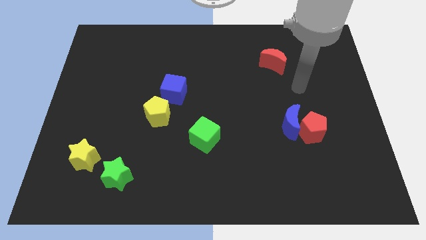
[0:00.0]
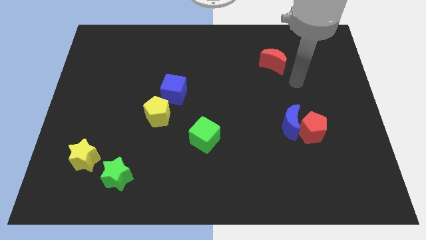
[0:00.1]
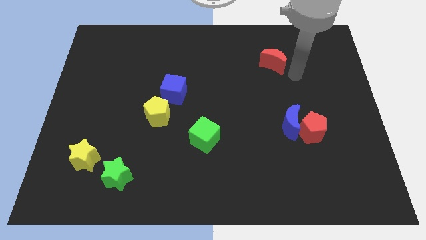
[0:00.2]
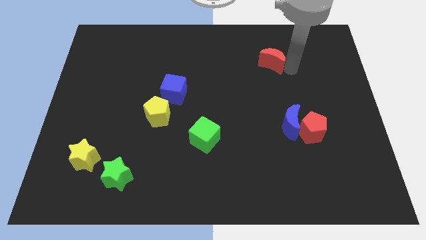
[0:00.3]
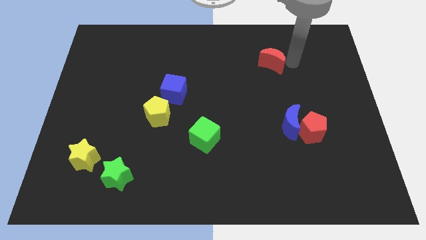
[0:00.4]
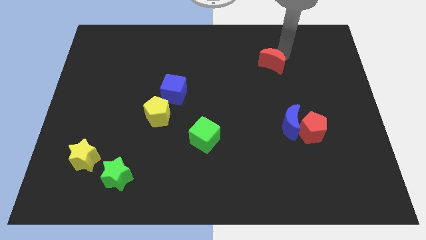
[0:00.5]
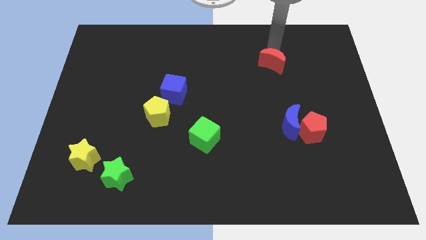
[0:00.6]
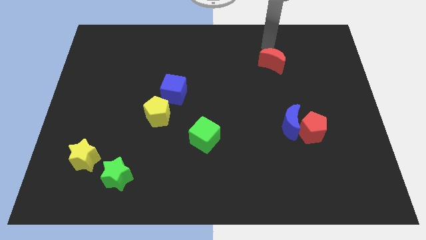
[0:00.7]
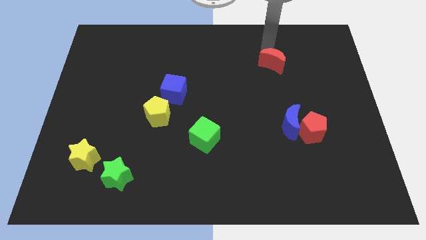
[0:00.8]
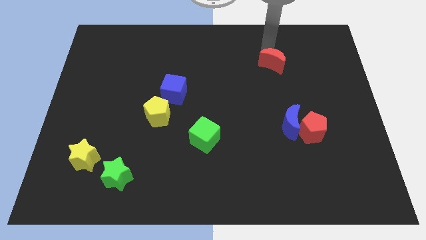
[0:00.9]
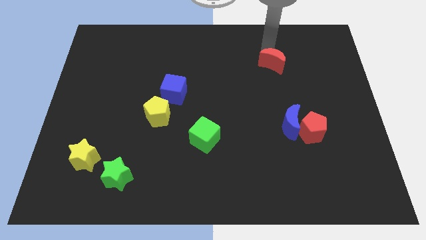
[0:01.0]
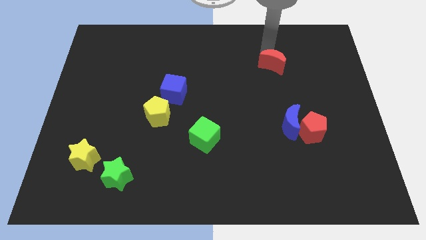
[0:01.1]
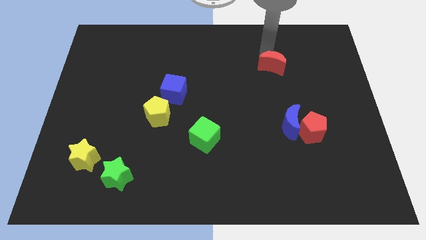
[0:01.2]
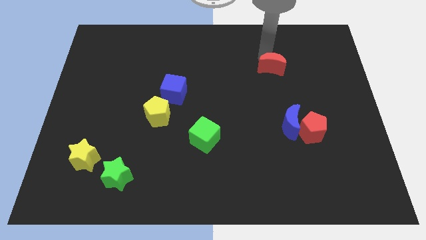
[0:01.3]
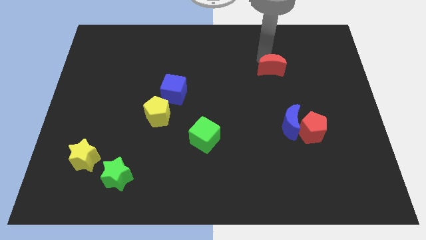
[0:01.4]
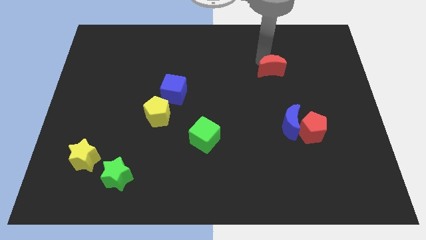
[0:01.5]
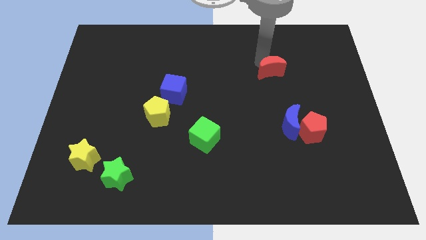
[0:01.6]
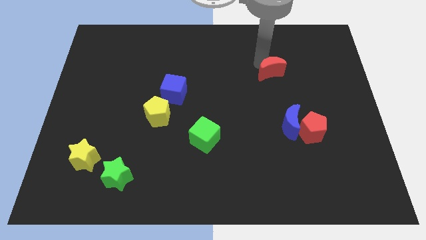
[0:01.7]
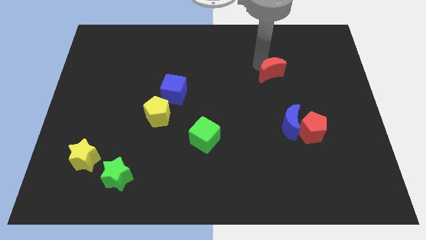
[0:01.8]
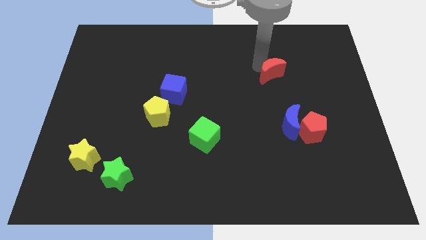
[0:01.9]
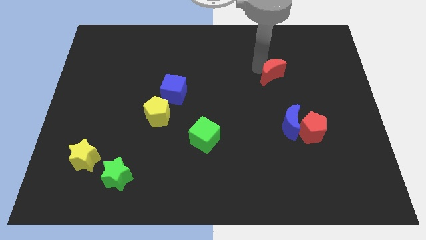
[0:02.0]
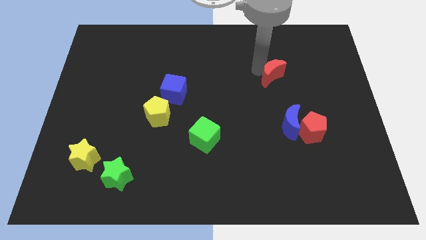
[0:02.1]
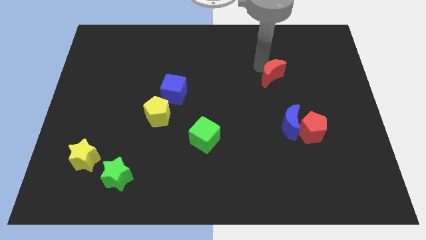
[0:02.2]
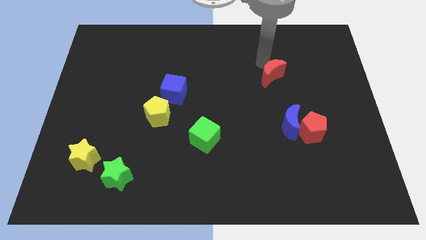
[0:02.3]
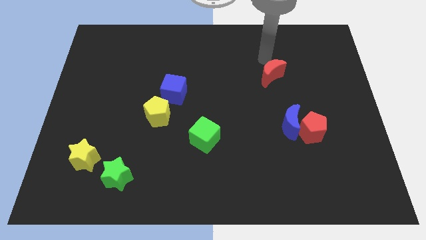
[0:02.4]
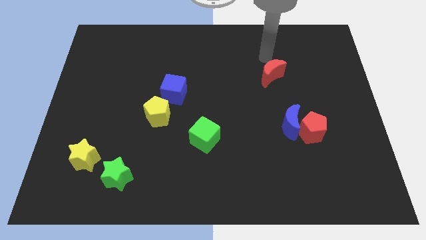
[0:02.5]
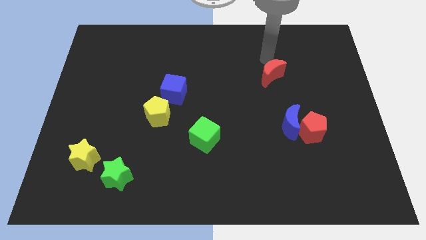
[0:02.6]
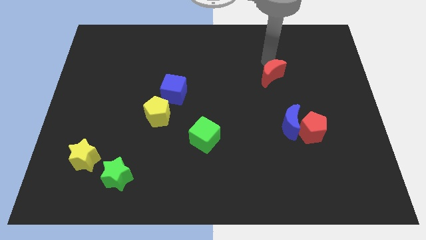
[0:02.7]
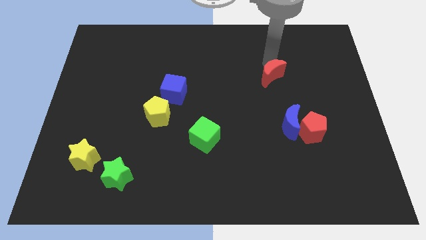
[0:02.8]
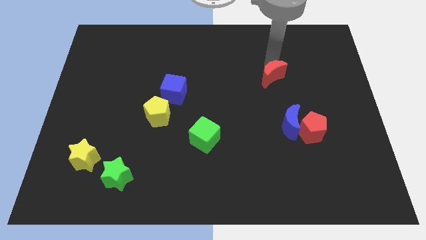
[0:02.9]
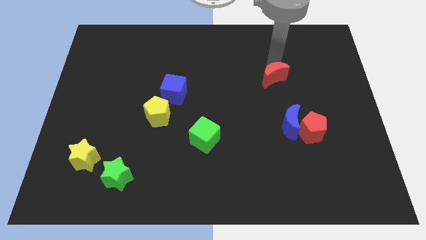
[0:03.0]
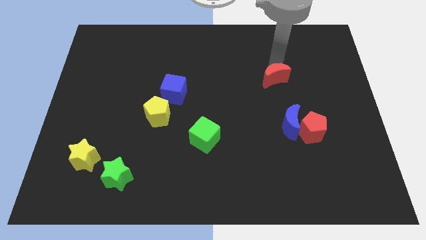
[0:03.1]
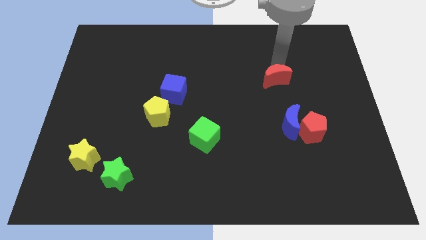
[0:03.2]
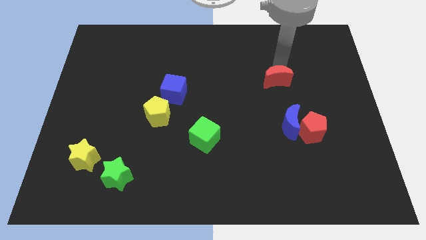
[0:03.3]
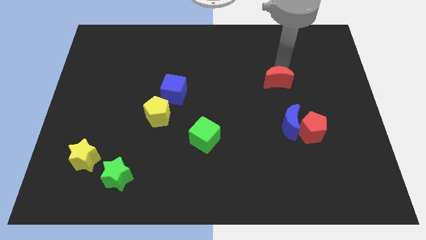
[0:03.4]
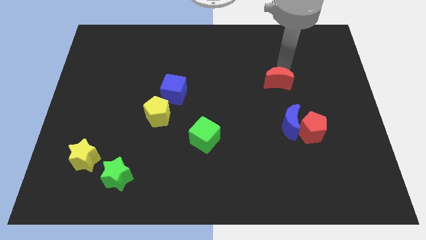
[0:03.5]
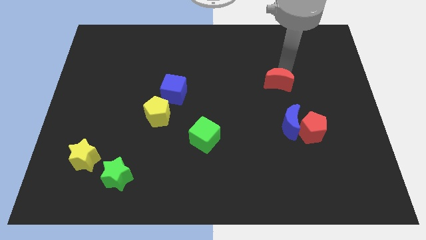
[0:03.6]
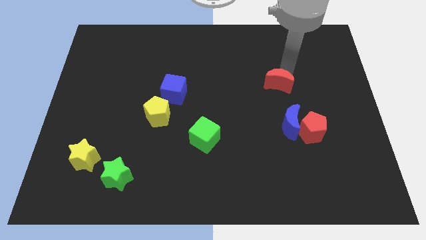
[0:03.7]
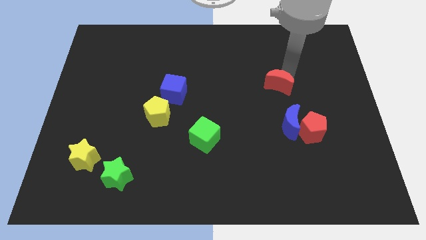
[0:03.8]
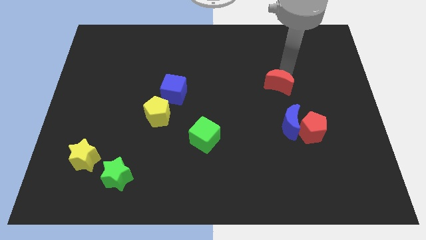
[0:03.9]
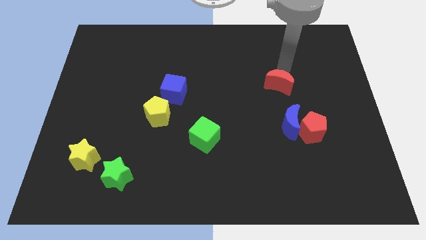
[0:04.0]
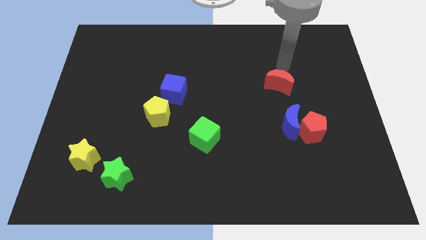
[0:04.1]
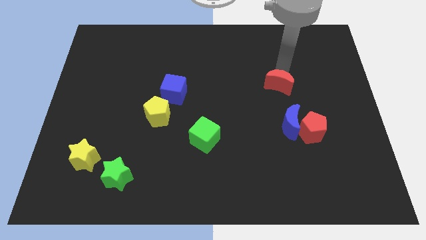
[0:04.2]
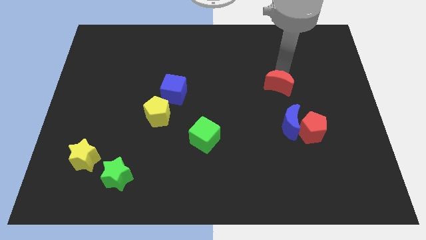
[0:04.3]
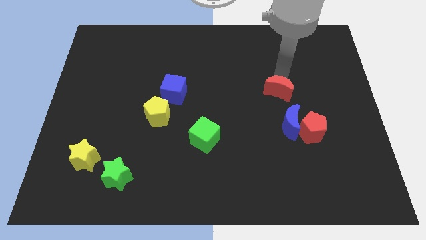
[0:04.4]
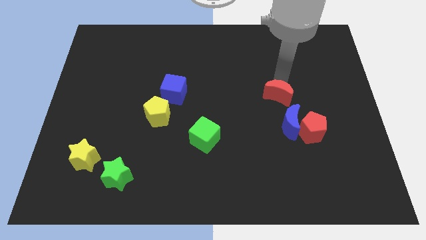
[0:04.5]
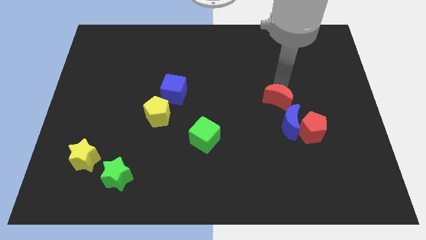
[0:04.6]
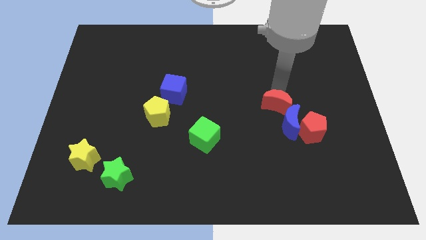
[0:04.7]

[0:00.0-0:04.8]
put the red moon close to the blue moon

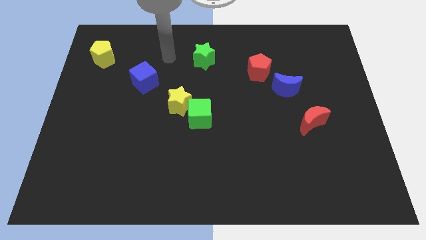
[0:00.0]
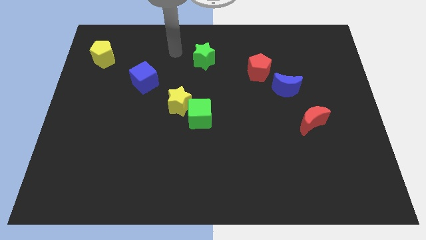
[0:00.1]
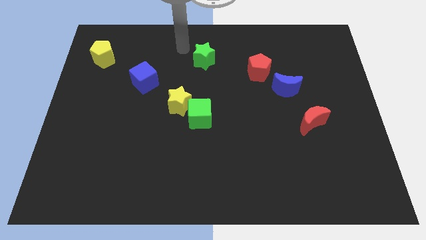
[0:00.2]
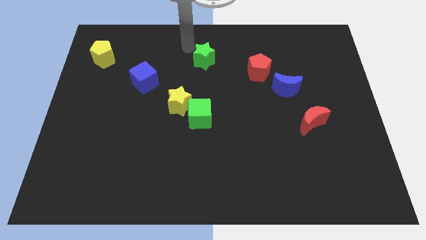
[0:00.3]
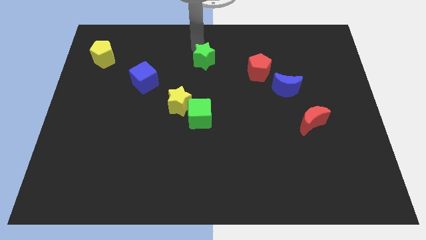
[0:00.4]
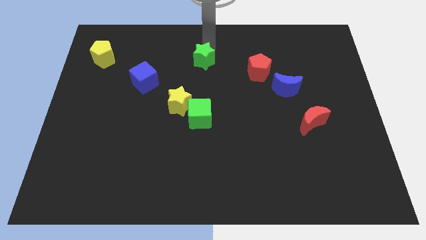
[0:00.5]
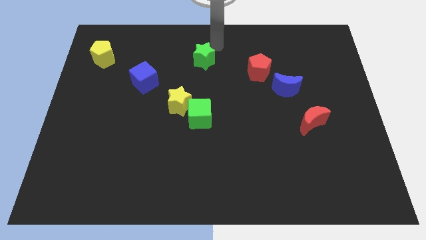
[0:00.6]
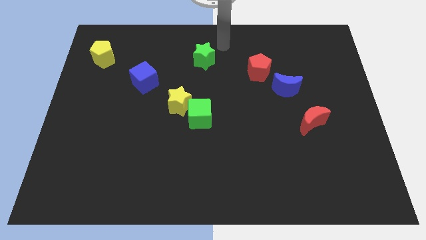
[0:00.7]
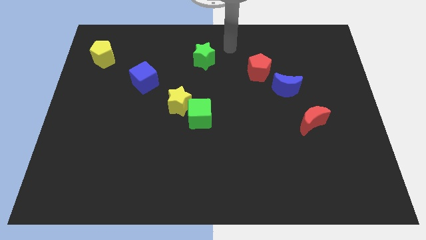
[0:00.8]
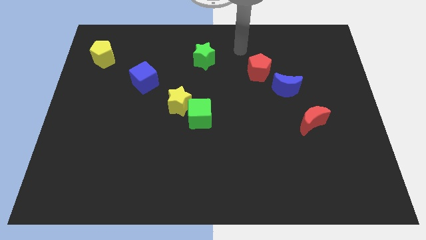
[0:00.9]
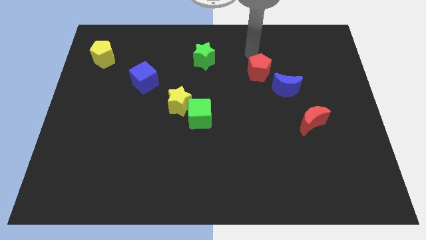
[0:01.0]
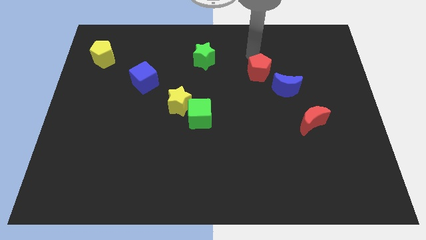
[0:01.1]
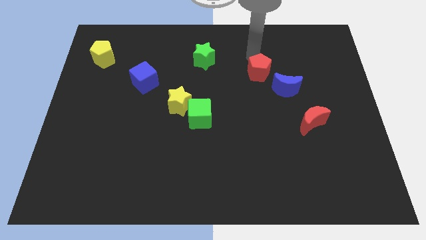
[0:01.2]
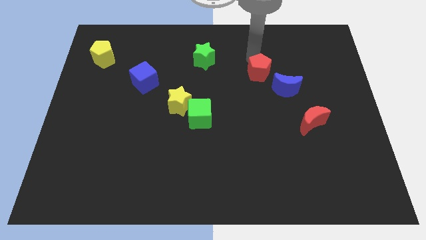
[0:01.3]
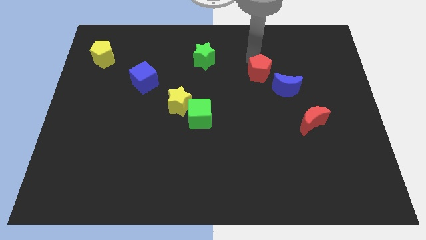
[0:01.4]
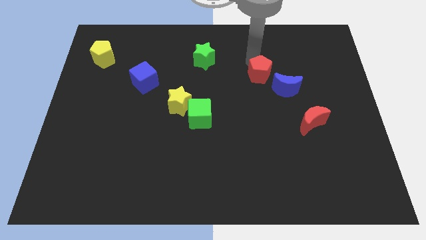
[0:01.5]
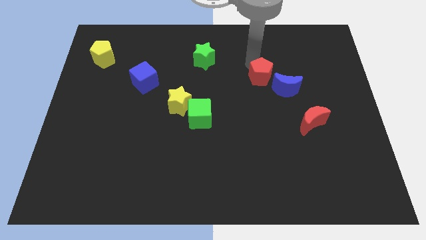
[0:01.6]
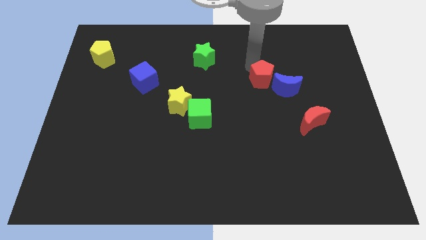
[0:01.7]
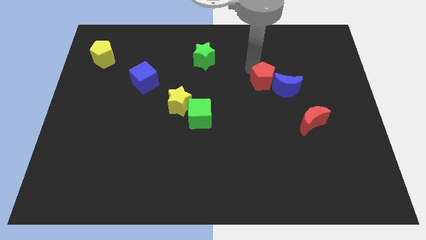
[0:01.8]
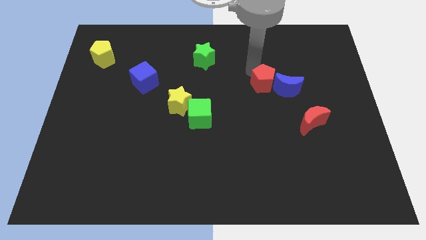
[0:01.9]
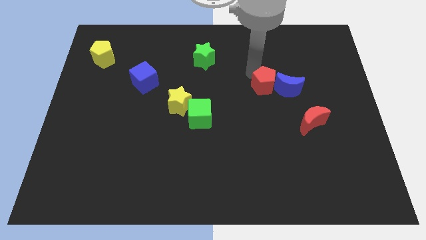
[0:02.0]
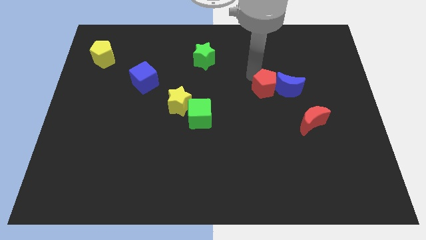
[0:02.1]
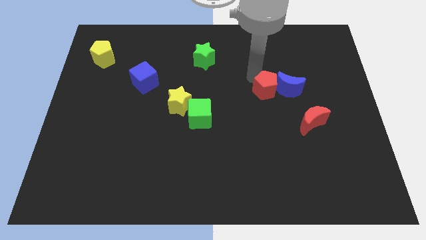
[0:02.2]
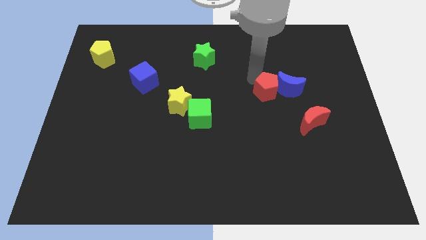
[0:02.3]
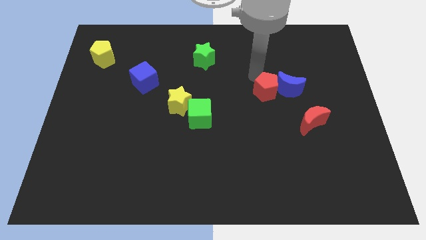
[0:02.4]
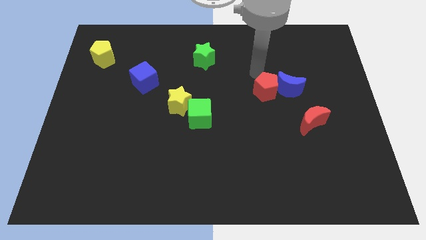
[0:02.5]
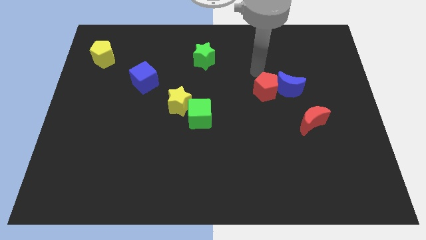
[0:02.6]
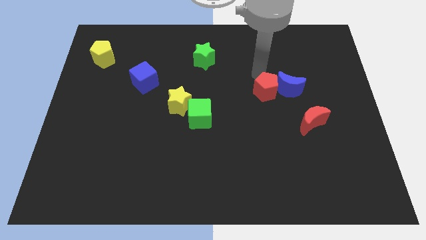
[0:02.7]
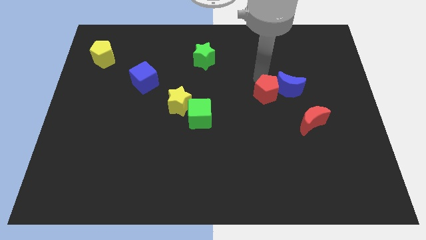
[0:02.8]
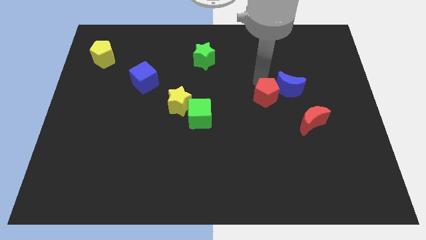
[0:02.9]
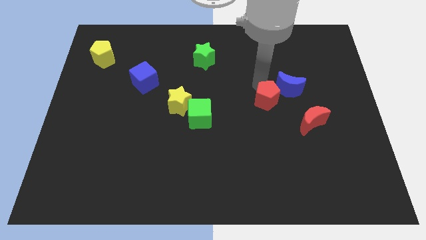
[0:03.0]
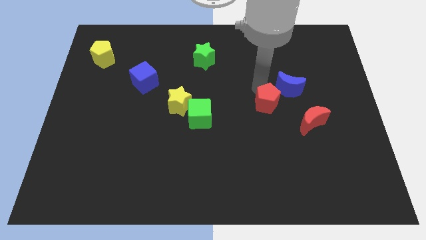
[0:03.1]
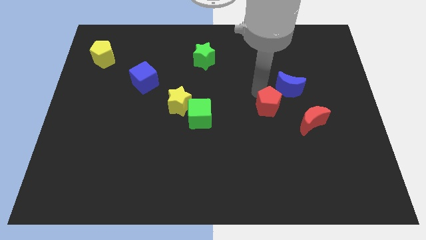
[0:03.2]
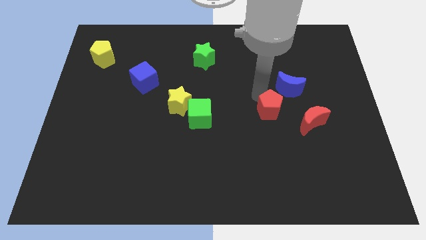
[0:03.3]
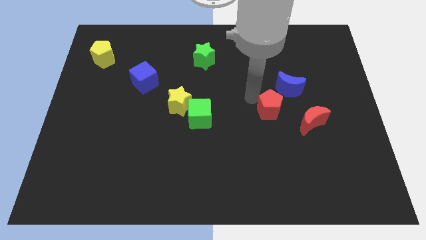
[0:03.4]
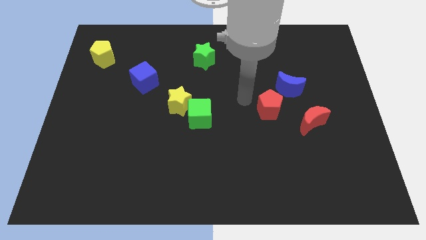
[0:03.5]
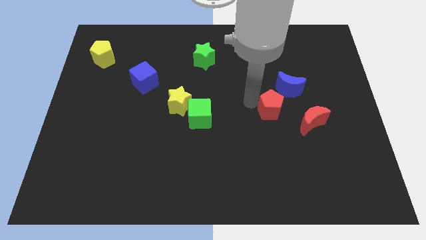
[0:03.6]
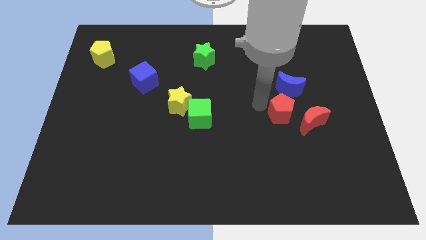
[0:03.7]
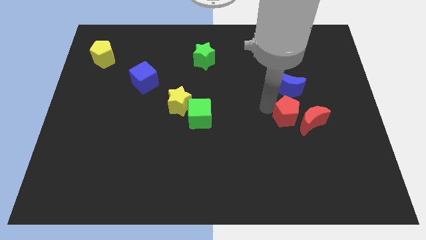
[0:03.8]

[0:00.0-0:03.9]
move the red pentagon close to the red moon

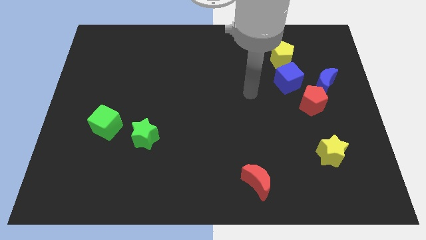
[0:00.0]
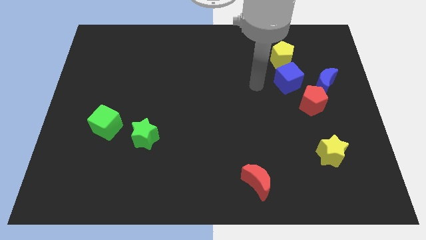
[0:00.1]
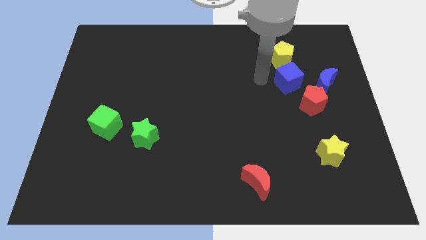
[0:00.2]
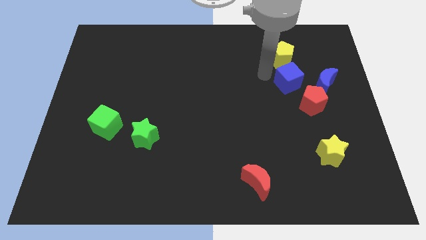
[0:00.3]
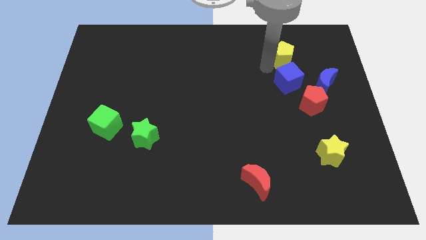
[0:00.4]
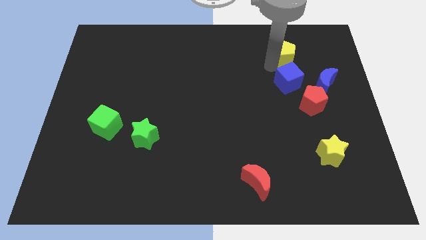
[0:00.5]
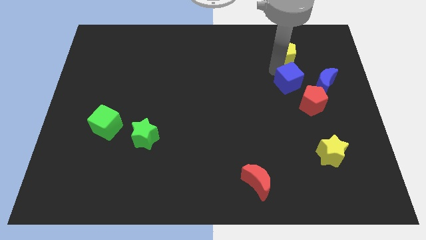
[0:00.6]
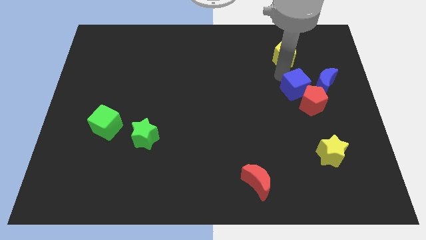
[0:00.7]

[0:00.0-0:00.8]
push the blue cube next to the red pentagon
